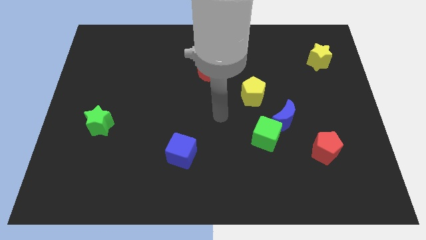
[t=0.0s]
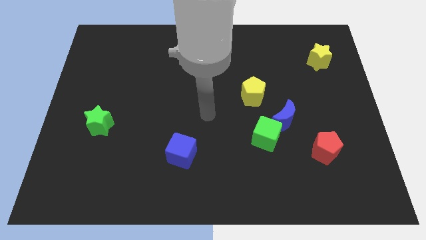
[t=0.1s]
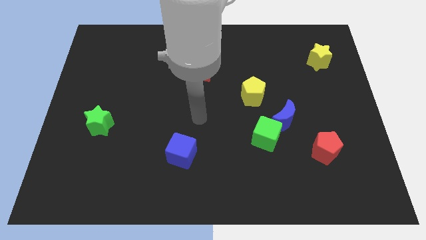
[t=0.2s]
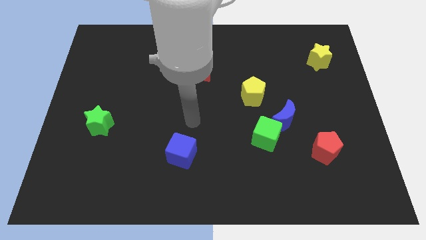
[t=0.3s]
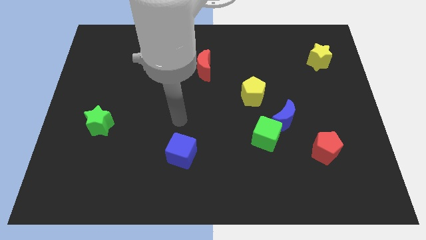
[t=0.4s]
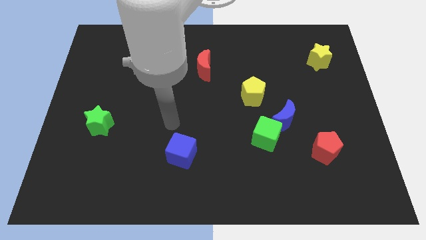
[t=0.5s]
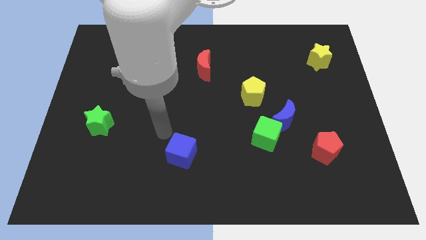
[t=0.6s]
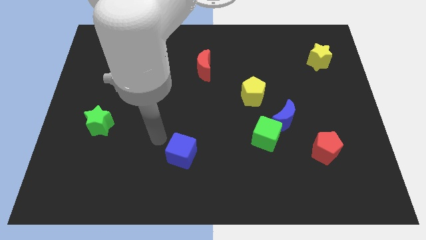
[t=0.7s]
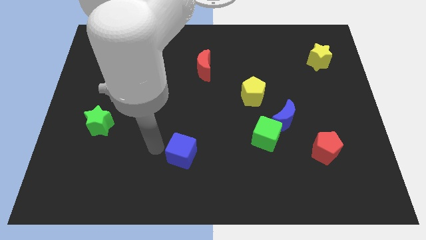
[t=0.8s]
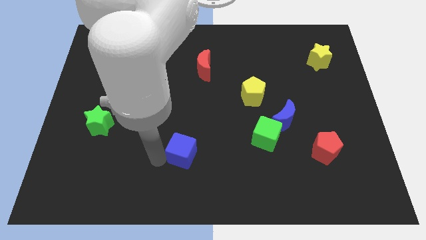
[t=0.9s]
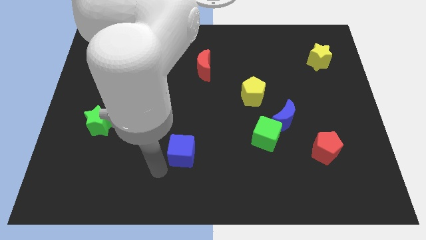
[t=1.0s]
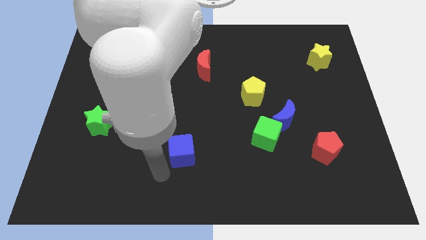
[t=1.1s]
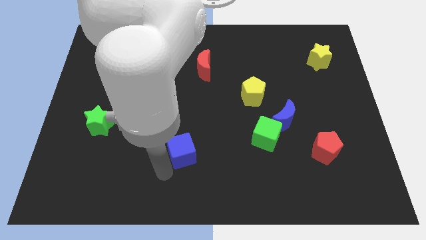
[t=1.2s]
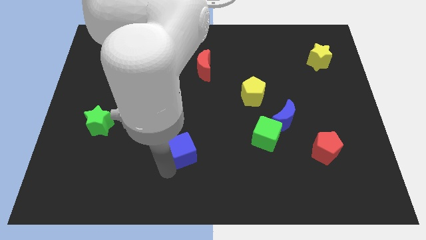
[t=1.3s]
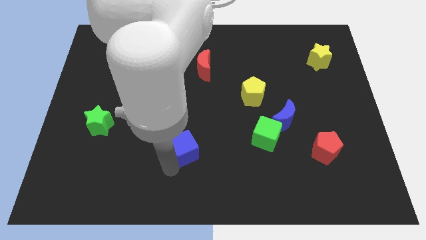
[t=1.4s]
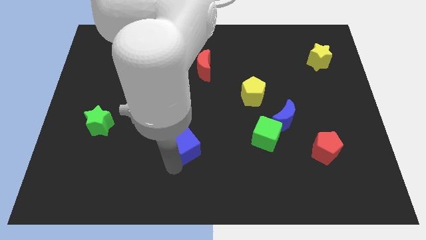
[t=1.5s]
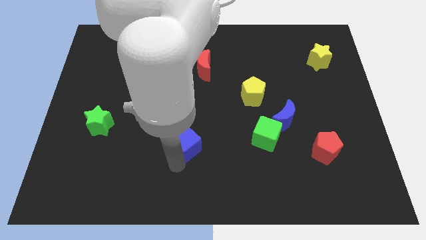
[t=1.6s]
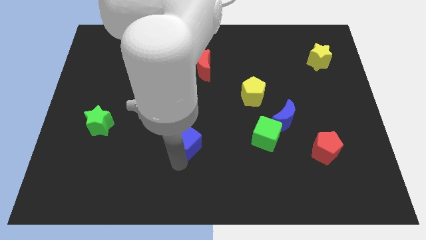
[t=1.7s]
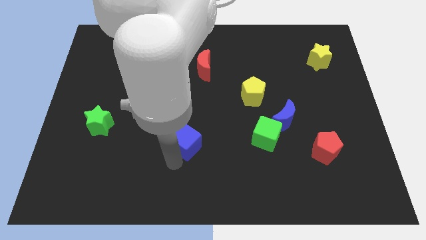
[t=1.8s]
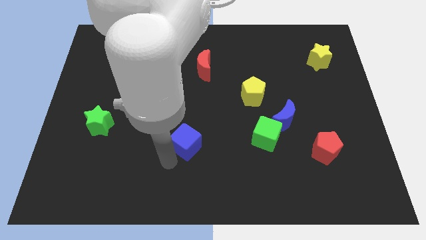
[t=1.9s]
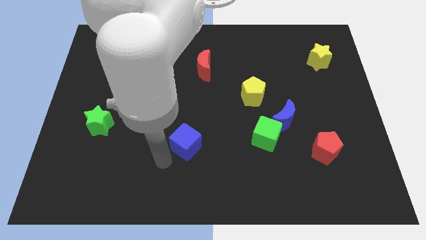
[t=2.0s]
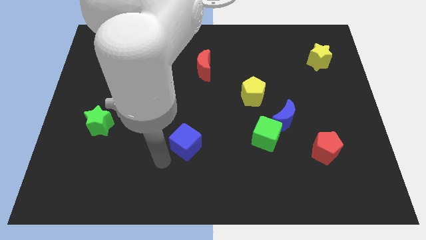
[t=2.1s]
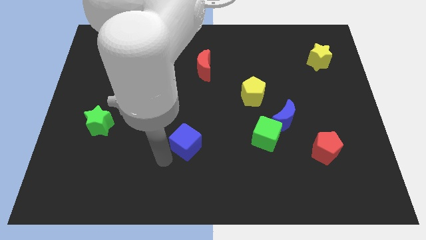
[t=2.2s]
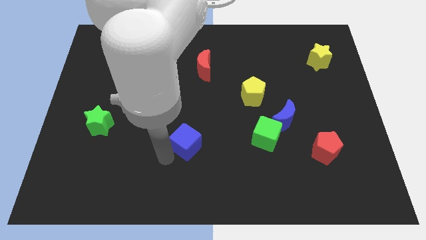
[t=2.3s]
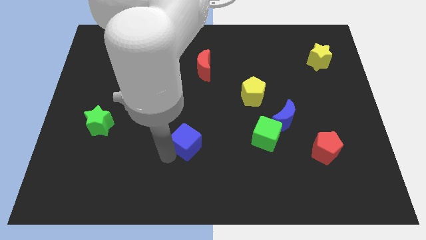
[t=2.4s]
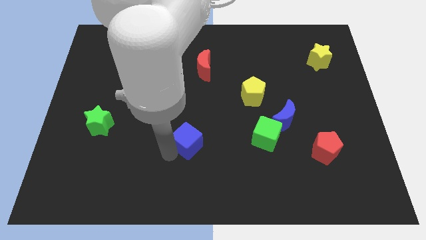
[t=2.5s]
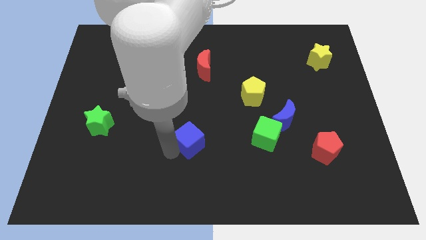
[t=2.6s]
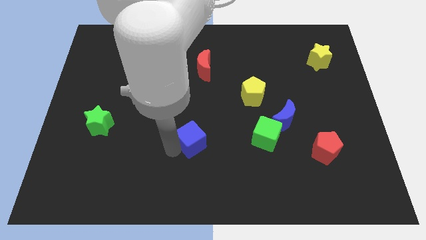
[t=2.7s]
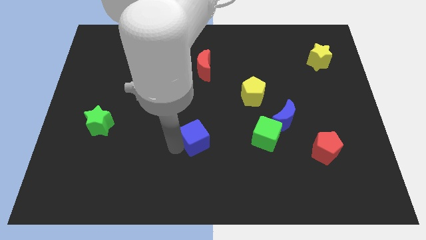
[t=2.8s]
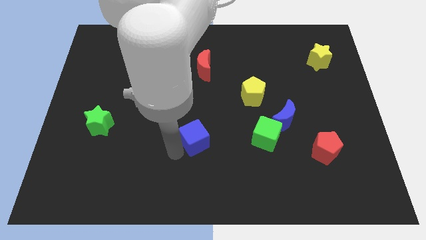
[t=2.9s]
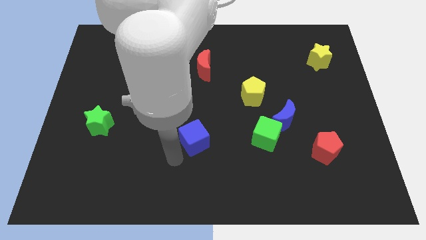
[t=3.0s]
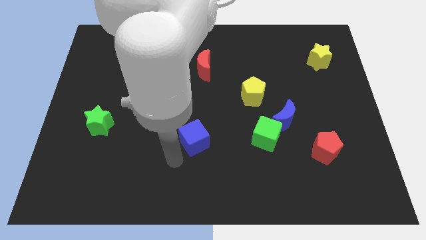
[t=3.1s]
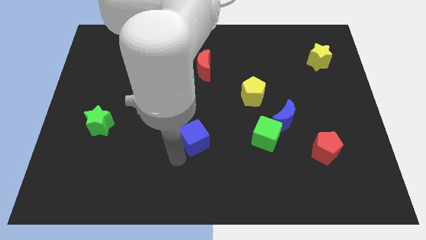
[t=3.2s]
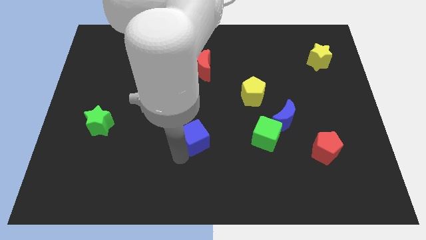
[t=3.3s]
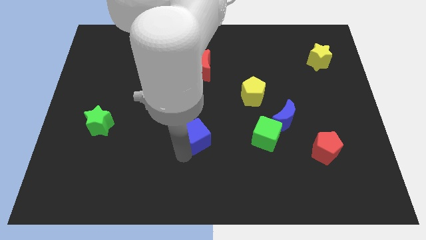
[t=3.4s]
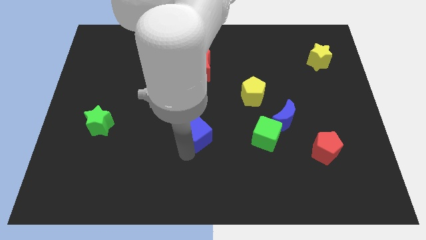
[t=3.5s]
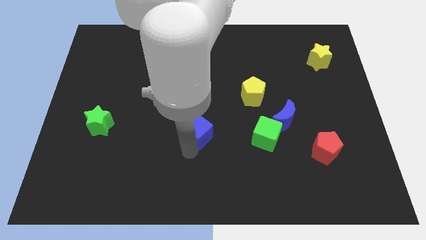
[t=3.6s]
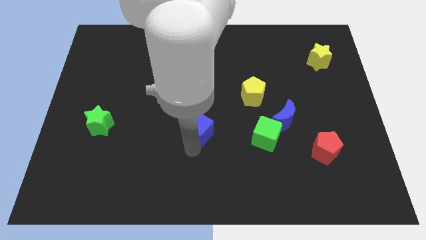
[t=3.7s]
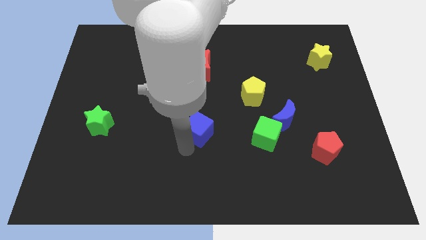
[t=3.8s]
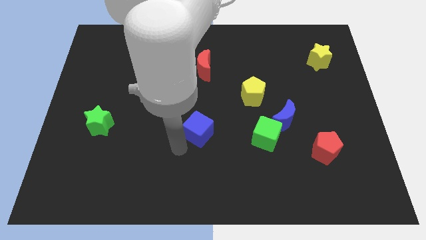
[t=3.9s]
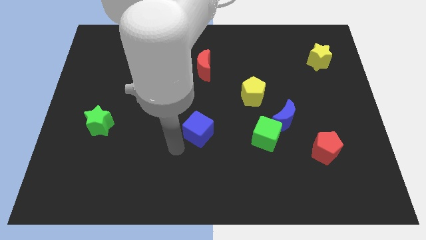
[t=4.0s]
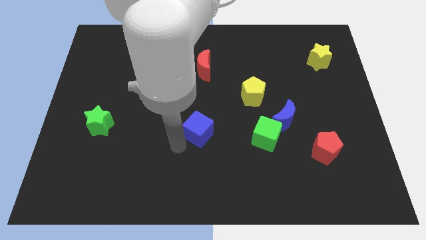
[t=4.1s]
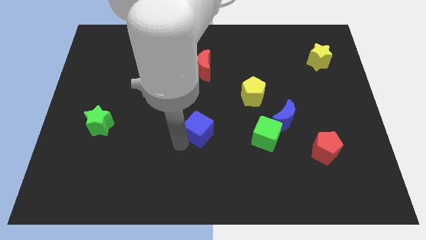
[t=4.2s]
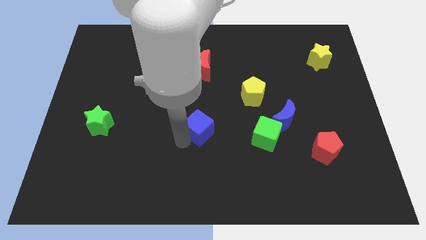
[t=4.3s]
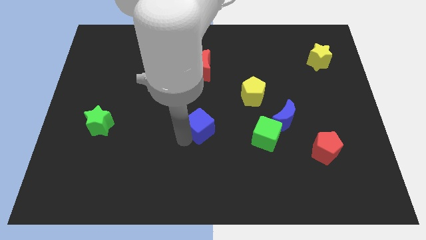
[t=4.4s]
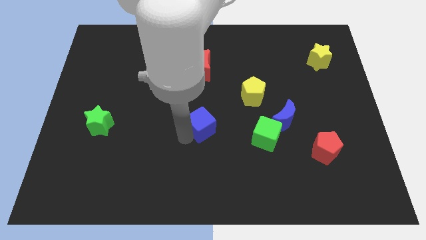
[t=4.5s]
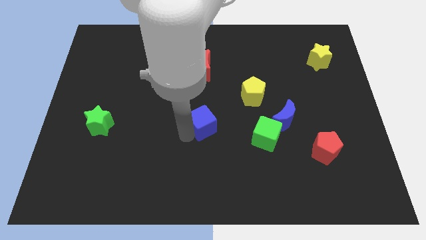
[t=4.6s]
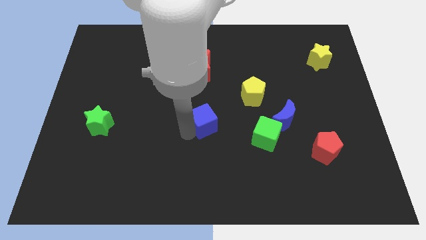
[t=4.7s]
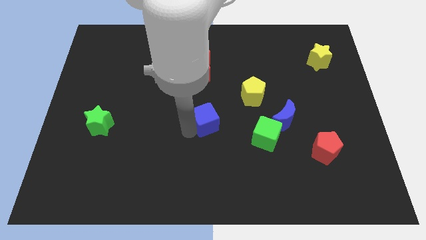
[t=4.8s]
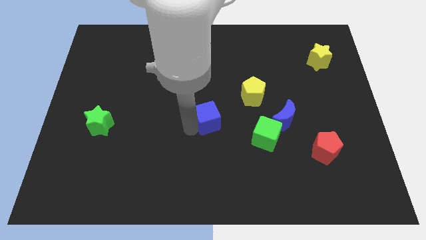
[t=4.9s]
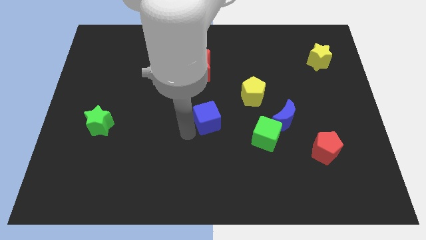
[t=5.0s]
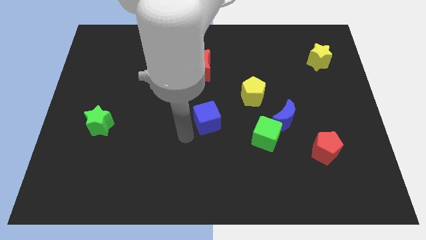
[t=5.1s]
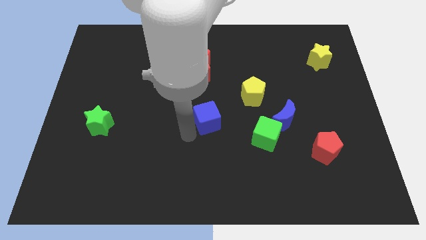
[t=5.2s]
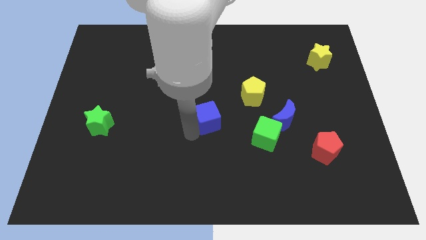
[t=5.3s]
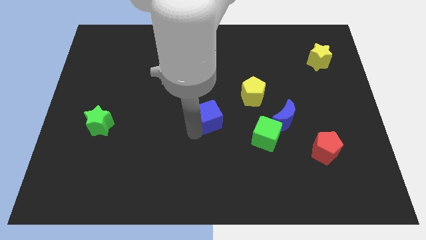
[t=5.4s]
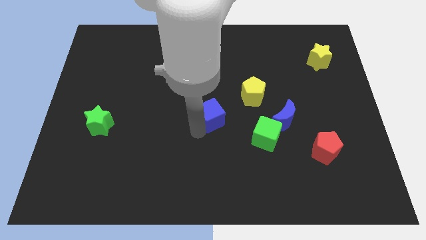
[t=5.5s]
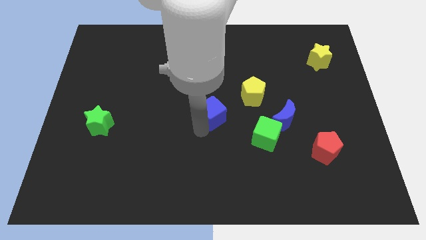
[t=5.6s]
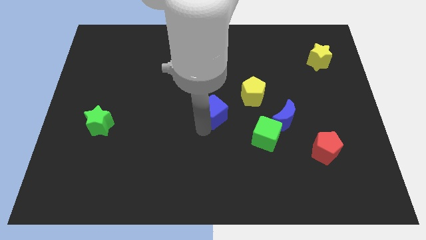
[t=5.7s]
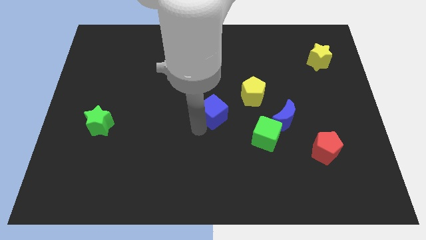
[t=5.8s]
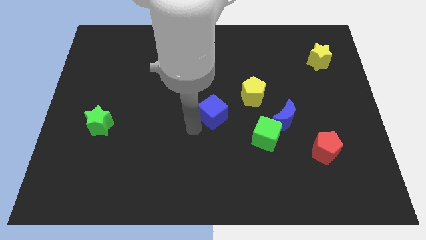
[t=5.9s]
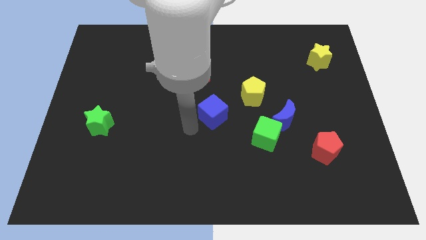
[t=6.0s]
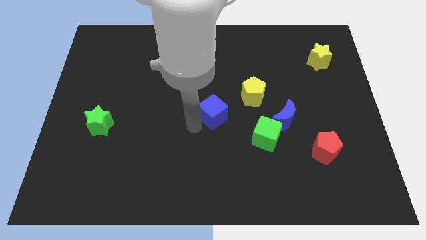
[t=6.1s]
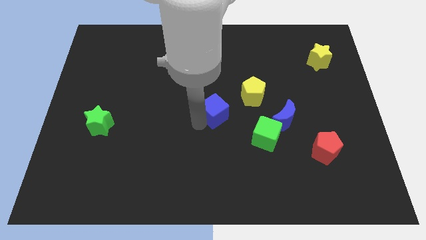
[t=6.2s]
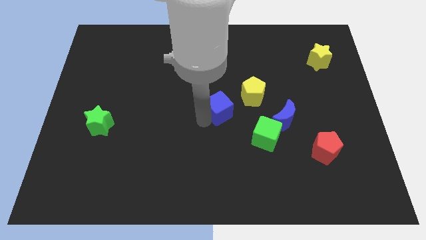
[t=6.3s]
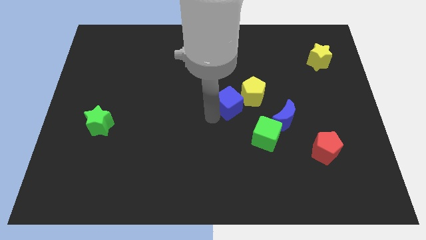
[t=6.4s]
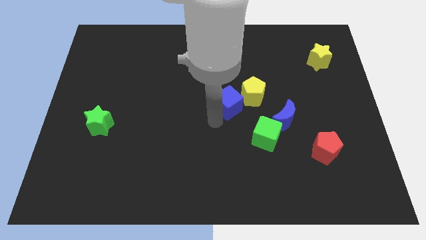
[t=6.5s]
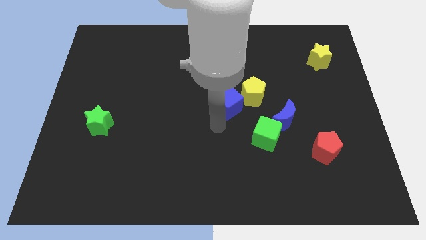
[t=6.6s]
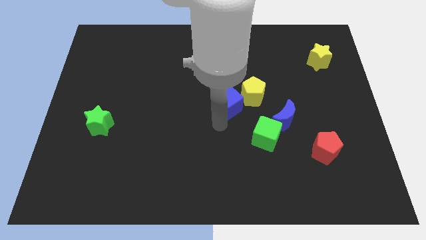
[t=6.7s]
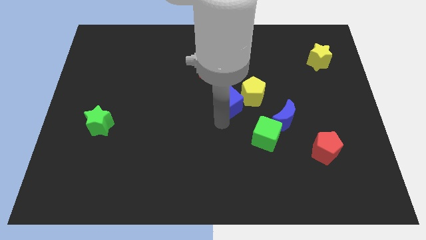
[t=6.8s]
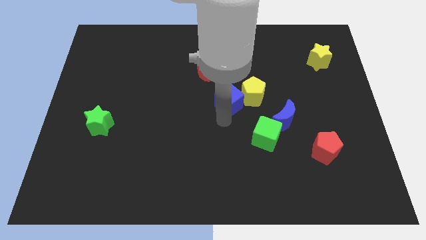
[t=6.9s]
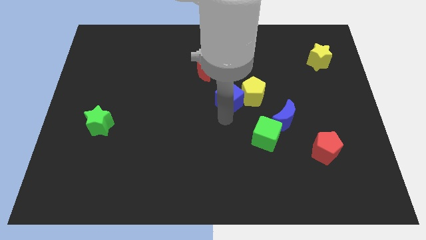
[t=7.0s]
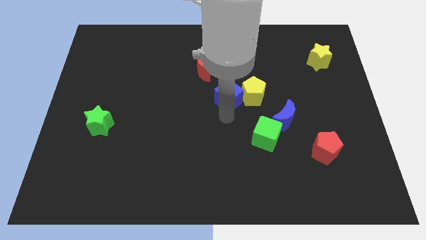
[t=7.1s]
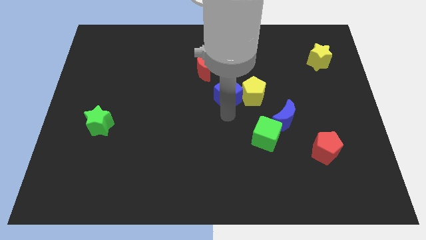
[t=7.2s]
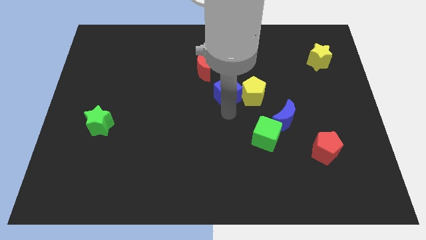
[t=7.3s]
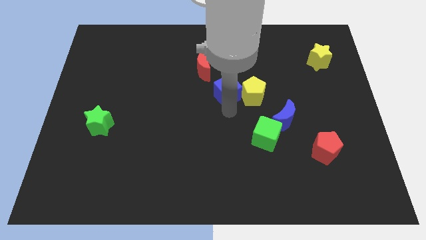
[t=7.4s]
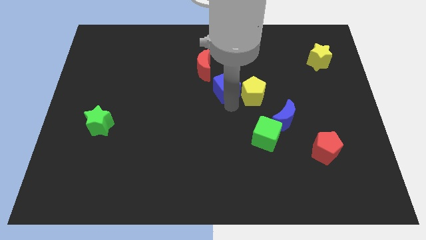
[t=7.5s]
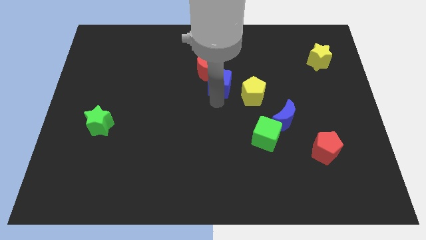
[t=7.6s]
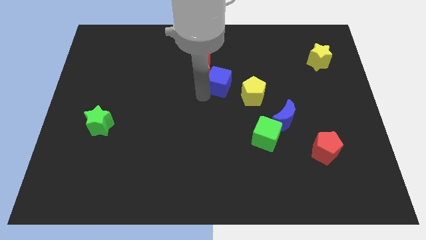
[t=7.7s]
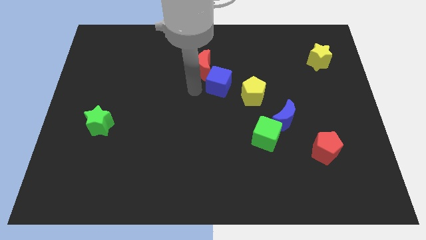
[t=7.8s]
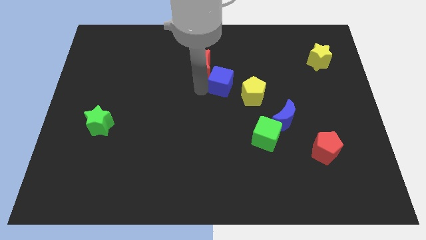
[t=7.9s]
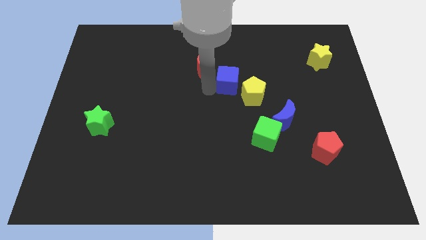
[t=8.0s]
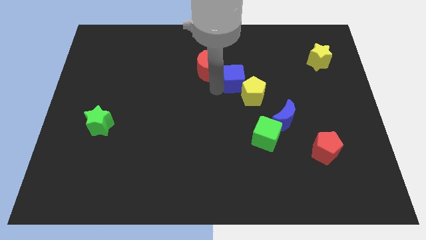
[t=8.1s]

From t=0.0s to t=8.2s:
slide the blue cube upwards and then to the right

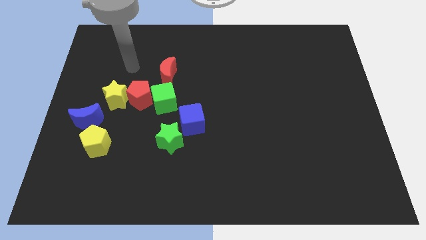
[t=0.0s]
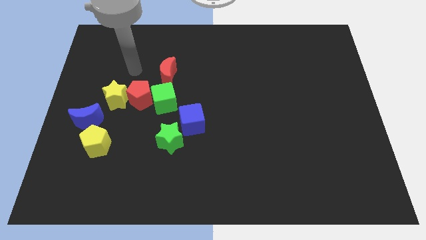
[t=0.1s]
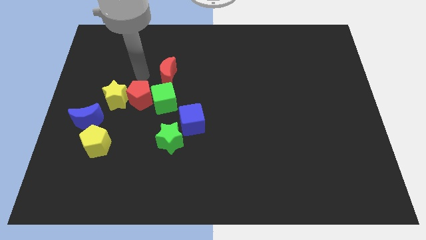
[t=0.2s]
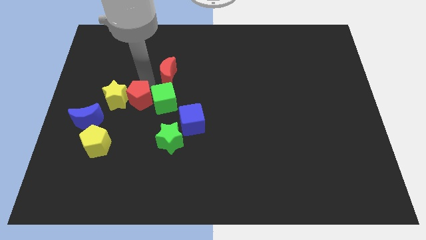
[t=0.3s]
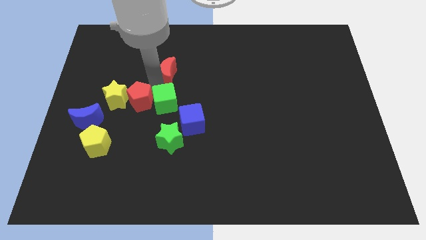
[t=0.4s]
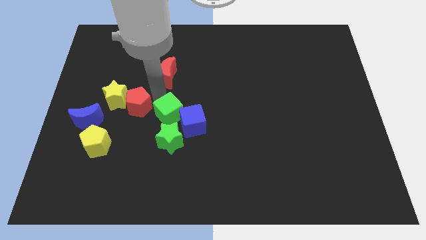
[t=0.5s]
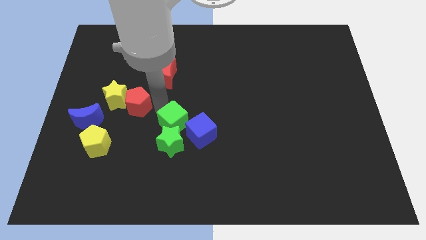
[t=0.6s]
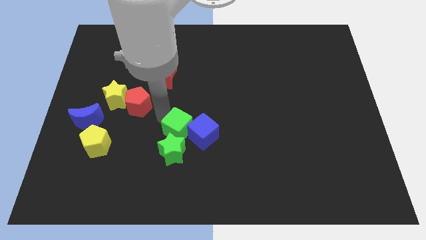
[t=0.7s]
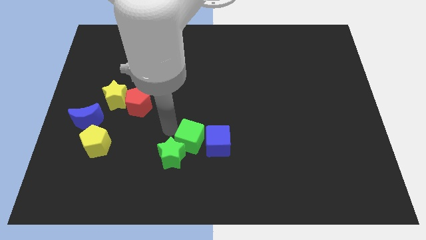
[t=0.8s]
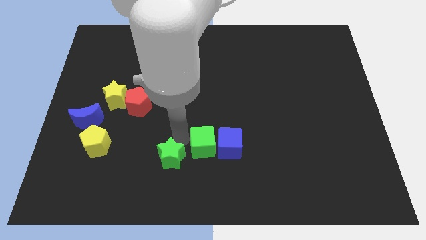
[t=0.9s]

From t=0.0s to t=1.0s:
slide the blue cube to the right a little bit
